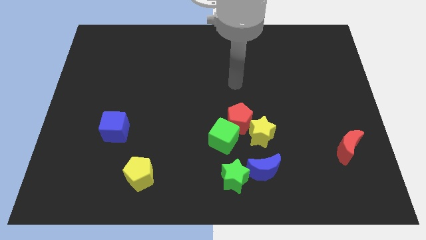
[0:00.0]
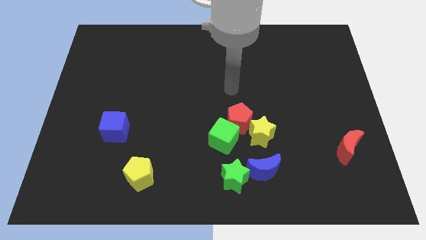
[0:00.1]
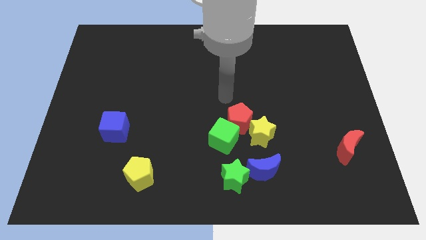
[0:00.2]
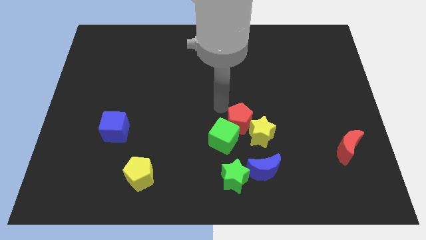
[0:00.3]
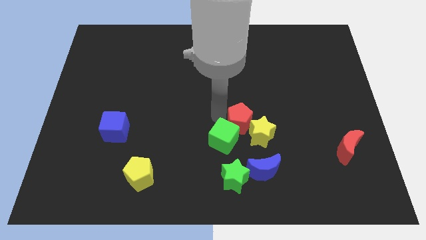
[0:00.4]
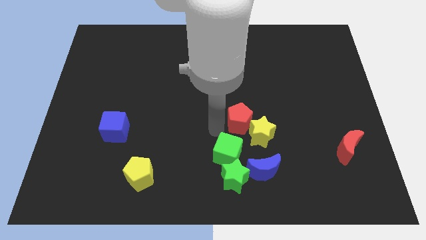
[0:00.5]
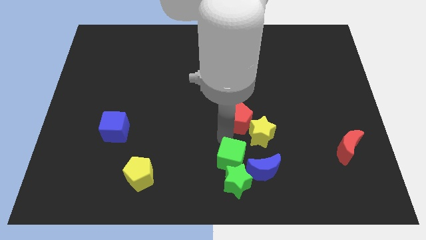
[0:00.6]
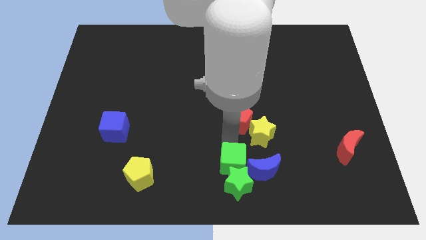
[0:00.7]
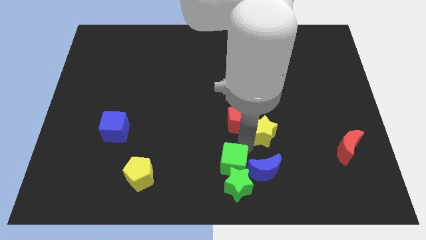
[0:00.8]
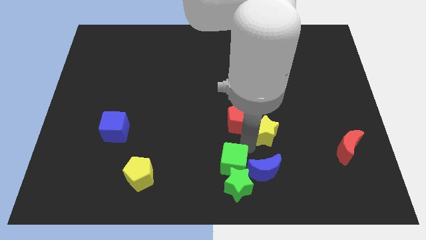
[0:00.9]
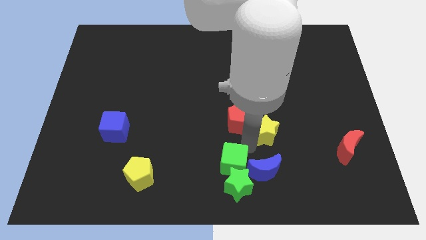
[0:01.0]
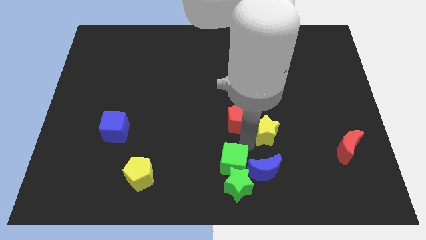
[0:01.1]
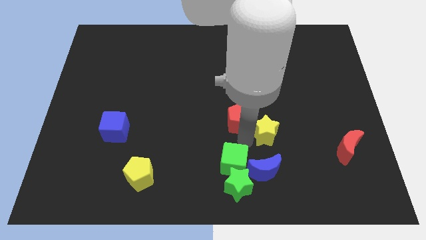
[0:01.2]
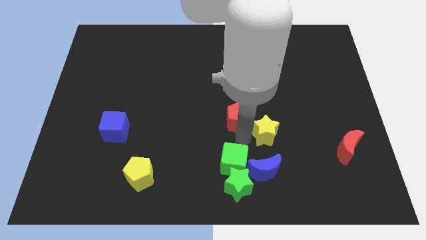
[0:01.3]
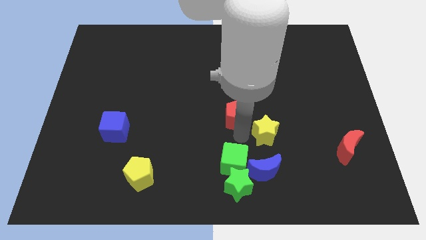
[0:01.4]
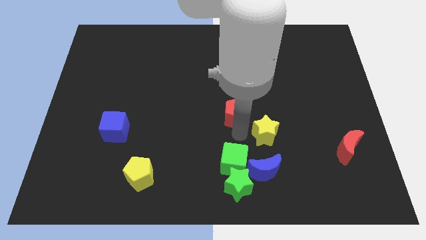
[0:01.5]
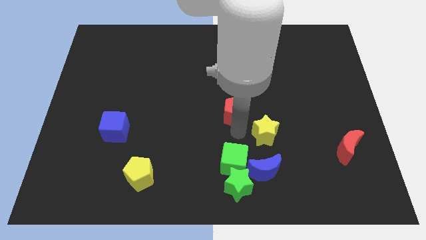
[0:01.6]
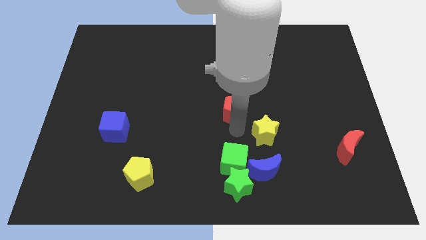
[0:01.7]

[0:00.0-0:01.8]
pull the red pentagon apart from the green cube and yellow star

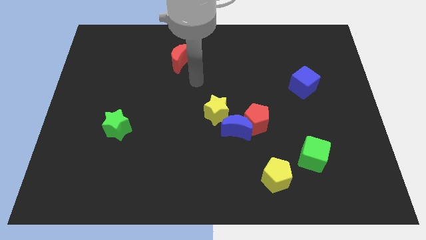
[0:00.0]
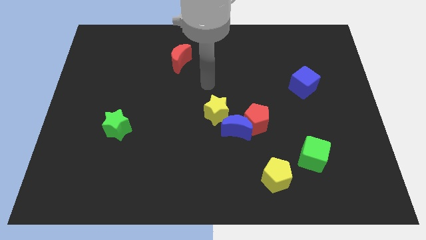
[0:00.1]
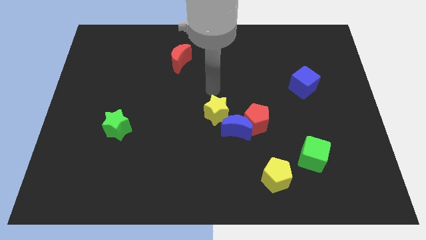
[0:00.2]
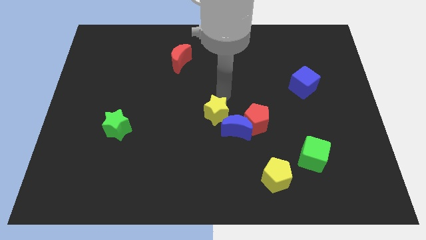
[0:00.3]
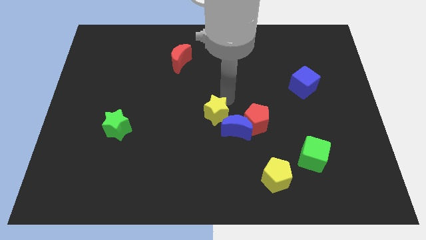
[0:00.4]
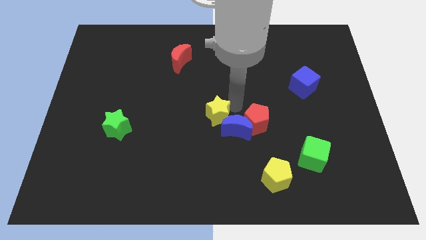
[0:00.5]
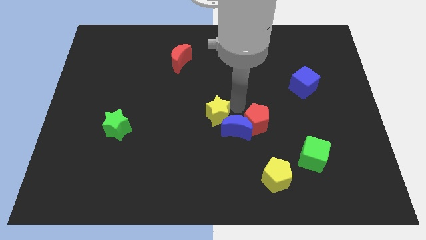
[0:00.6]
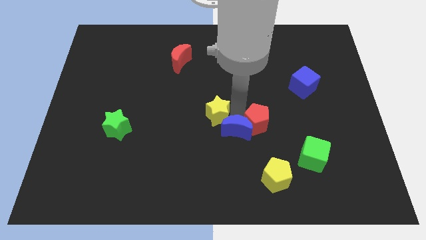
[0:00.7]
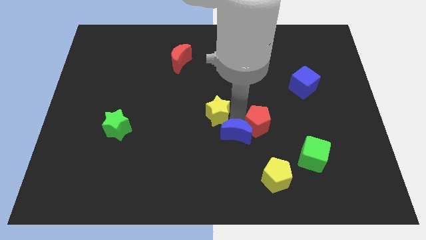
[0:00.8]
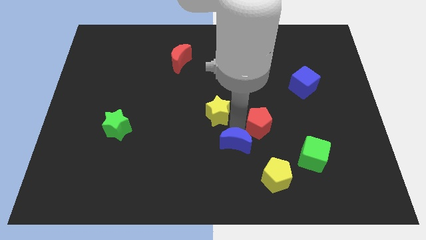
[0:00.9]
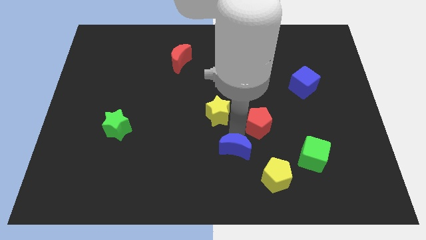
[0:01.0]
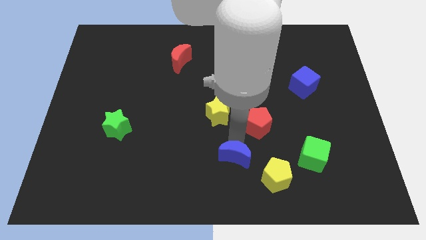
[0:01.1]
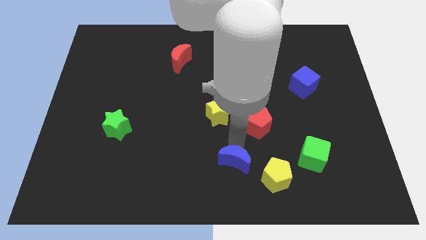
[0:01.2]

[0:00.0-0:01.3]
separate the blue moon from the red pentagon and yellow star

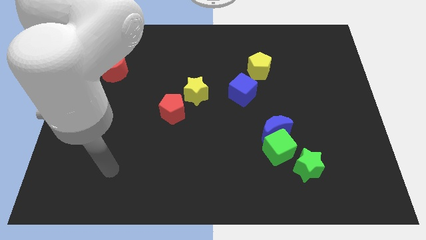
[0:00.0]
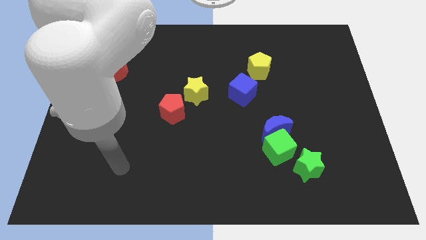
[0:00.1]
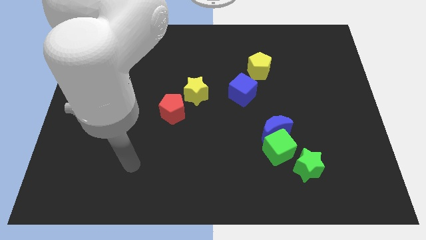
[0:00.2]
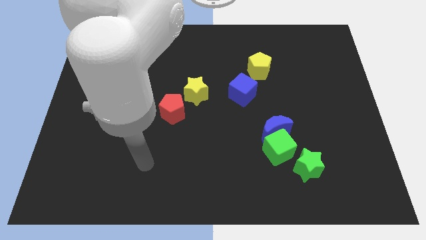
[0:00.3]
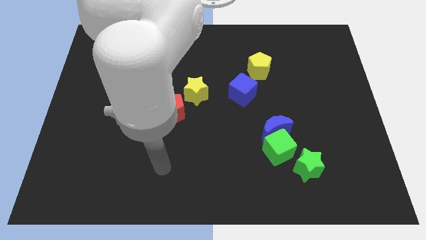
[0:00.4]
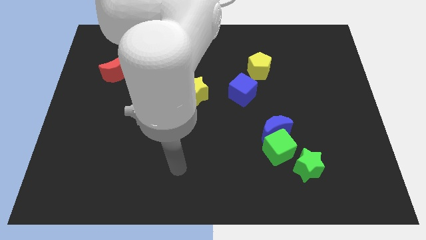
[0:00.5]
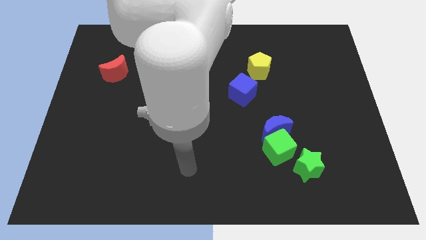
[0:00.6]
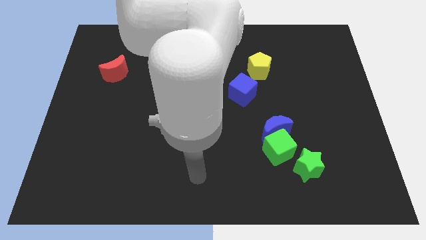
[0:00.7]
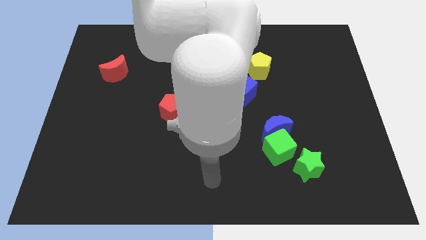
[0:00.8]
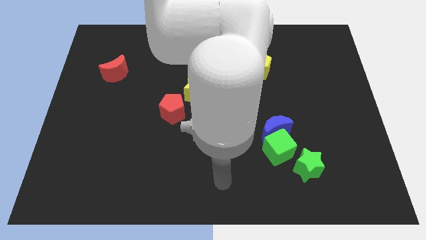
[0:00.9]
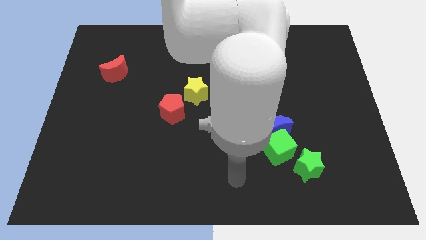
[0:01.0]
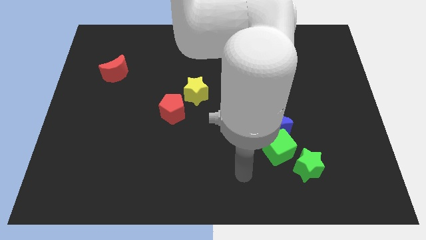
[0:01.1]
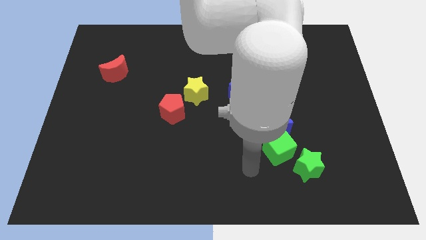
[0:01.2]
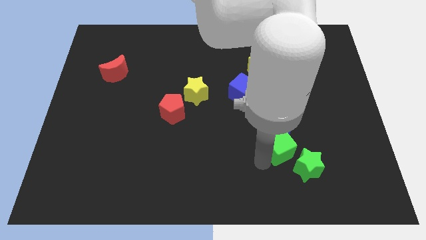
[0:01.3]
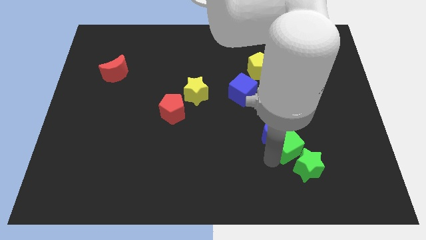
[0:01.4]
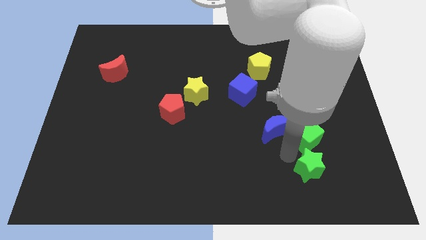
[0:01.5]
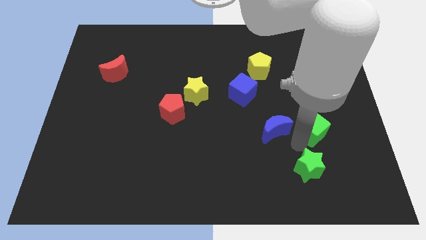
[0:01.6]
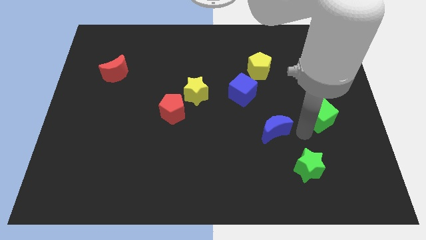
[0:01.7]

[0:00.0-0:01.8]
separate the blue moon from the green cube

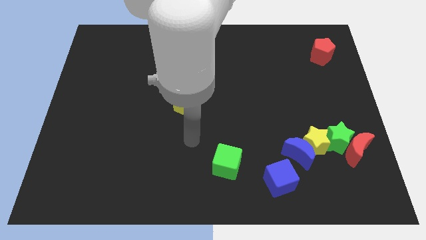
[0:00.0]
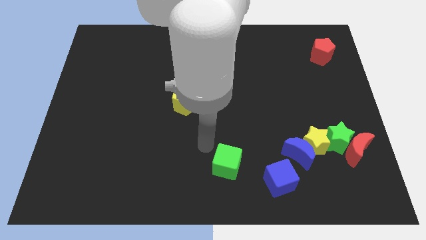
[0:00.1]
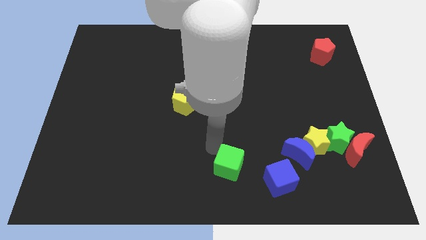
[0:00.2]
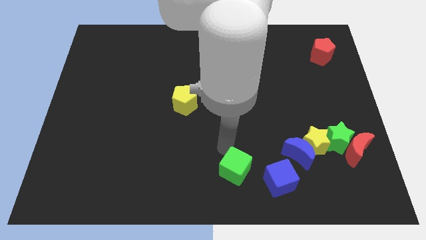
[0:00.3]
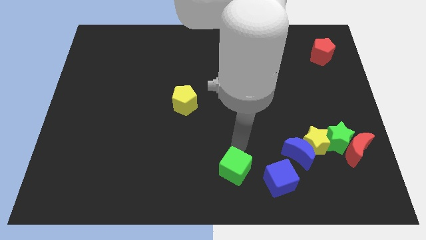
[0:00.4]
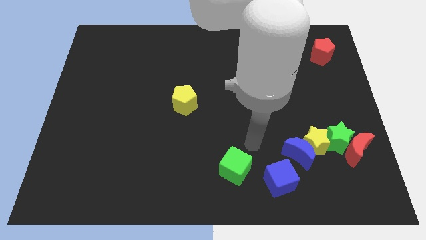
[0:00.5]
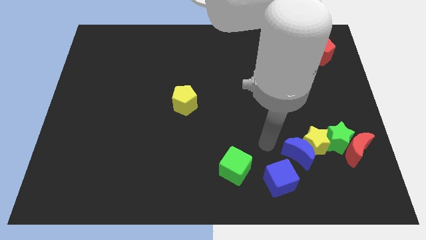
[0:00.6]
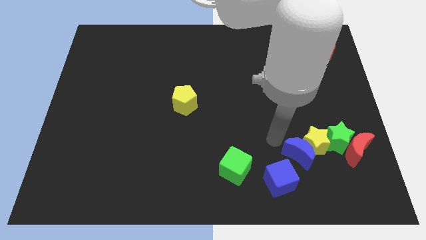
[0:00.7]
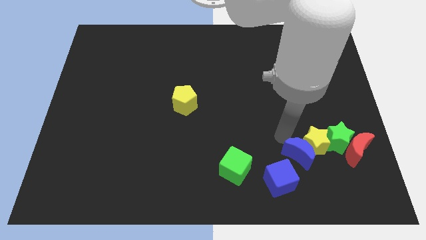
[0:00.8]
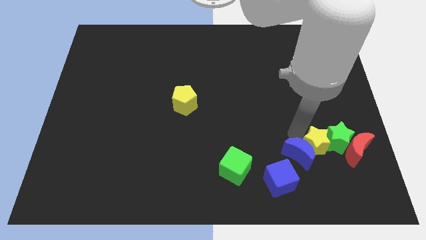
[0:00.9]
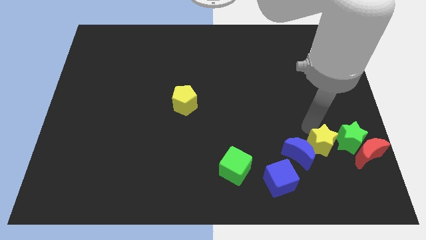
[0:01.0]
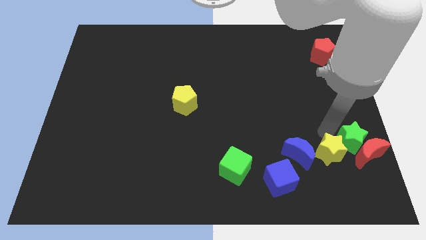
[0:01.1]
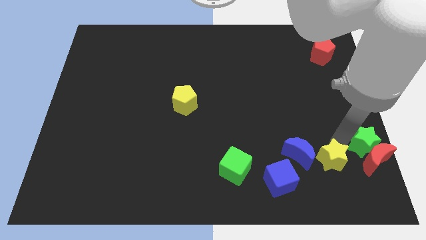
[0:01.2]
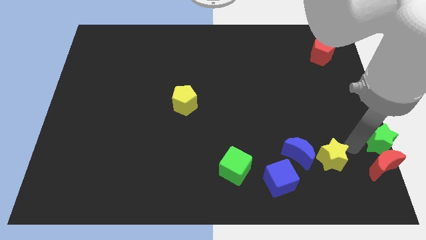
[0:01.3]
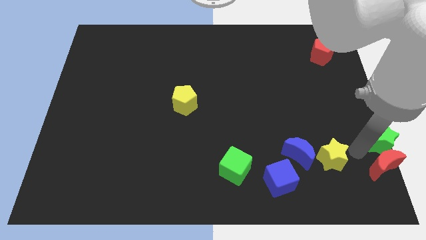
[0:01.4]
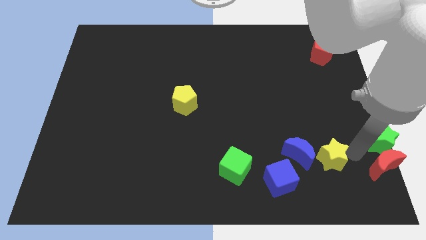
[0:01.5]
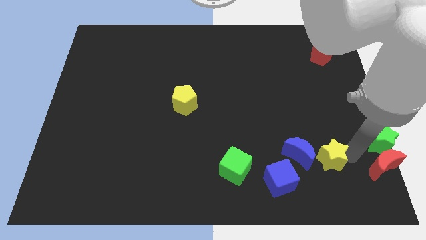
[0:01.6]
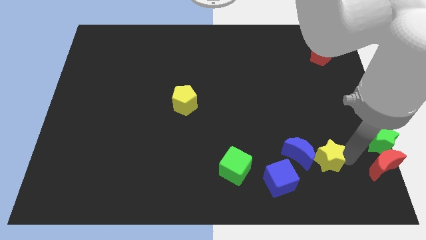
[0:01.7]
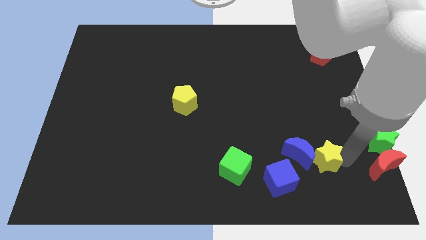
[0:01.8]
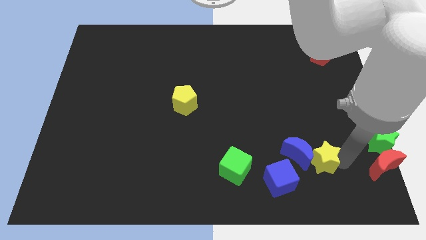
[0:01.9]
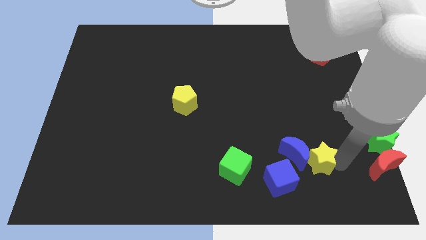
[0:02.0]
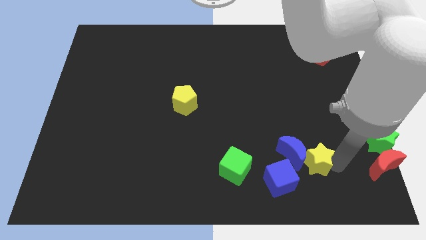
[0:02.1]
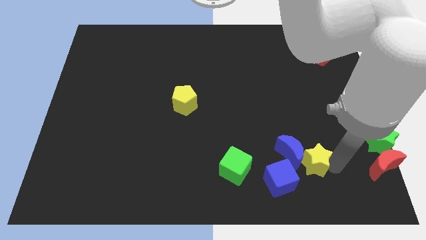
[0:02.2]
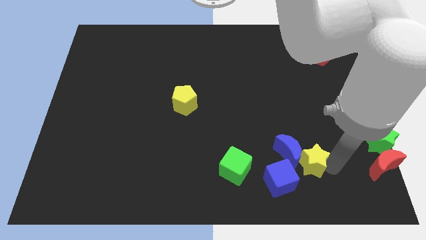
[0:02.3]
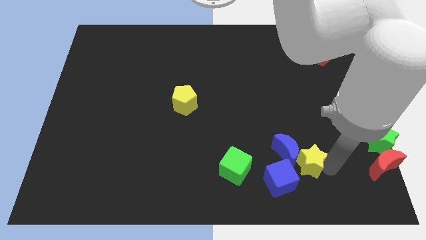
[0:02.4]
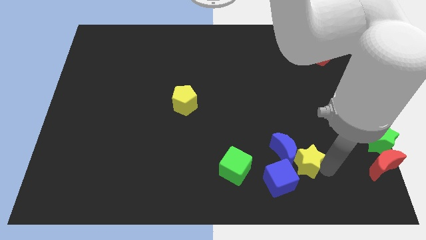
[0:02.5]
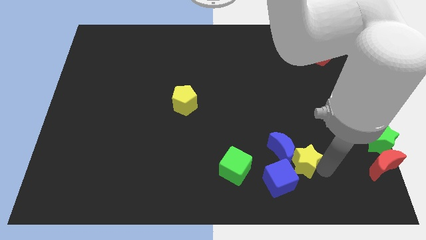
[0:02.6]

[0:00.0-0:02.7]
separate the yellow star from the group of blocks

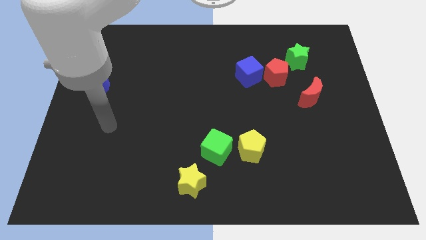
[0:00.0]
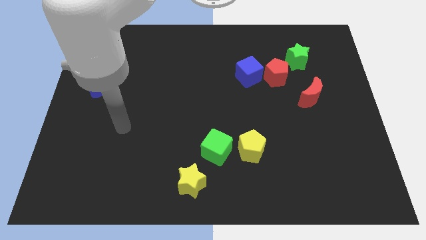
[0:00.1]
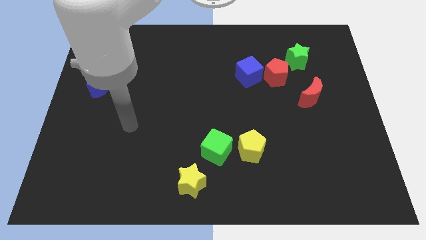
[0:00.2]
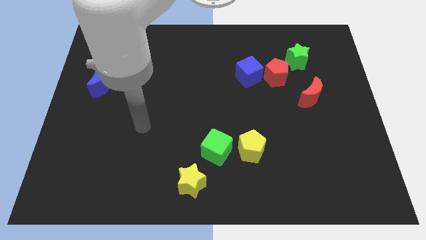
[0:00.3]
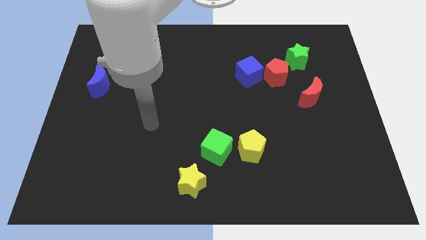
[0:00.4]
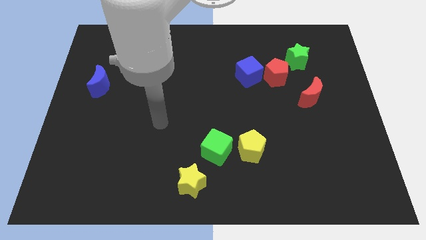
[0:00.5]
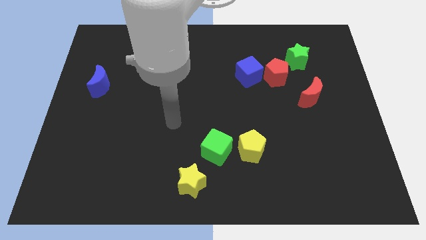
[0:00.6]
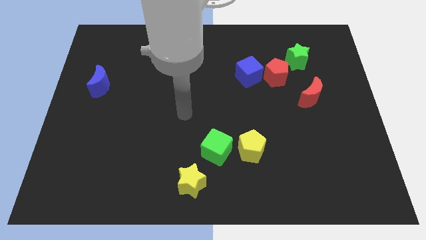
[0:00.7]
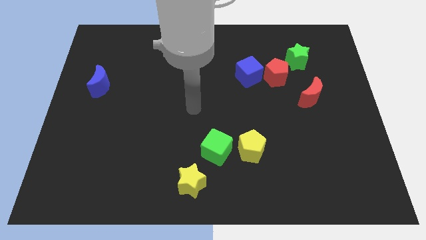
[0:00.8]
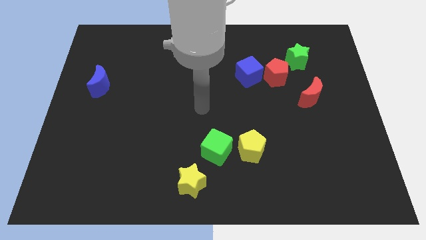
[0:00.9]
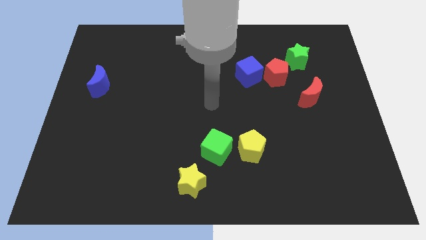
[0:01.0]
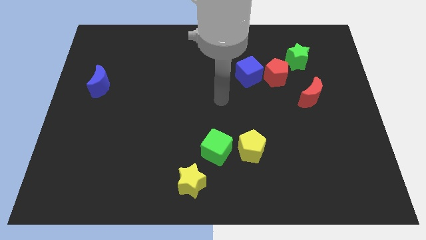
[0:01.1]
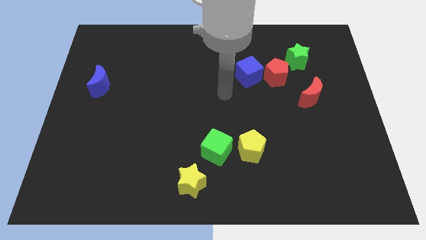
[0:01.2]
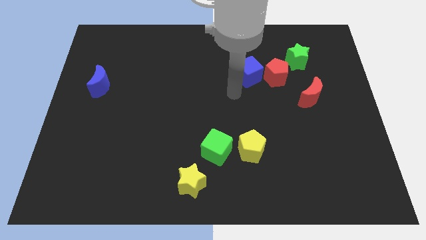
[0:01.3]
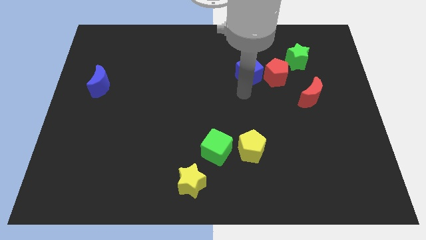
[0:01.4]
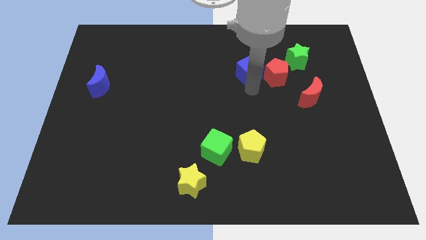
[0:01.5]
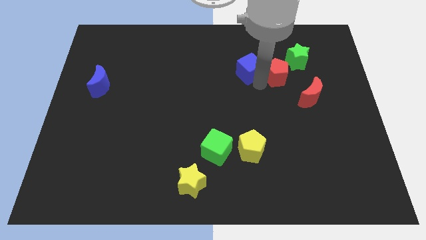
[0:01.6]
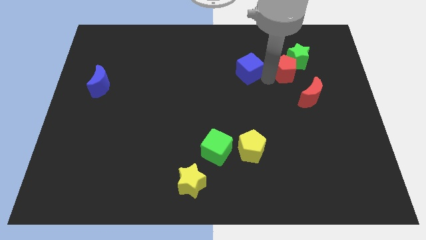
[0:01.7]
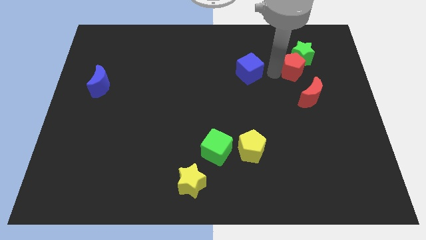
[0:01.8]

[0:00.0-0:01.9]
move the blue cube away from the red pentagon

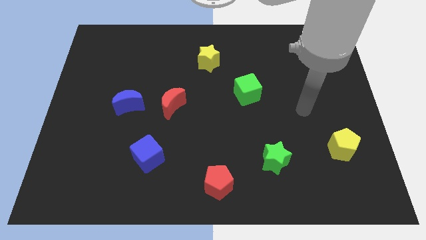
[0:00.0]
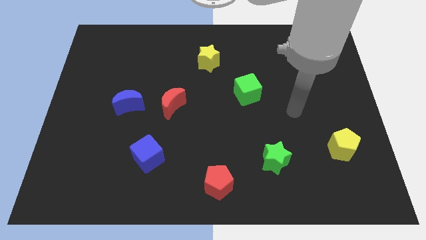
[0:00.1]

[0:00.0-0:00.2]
move the red moon away from the blue moon
